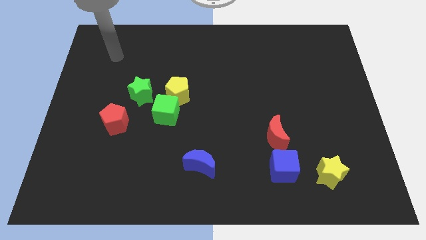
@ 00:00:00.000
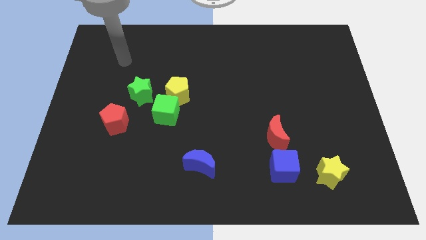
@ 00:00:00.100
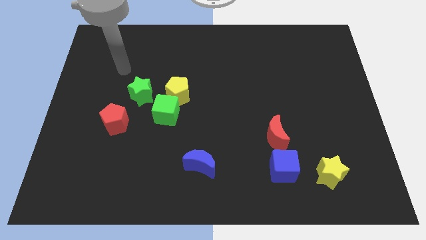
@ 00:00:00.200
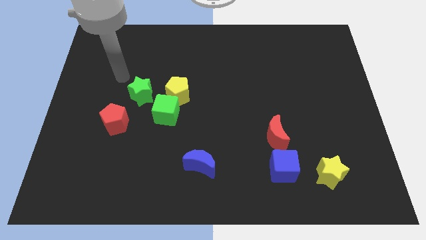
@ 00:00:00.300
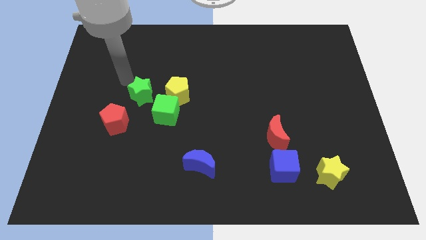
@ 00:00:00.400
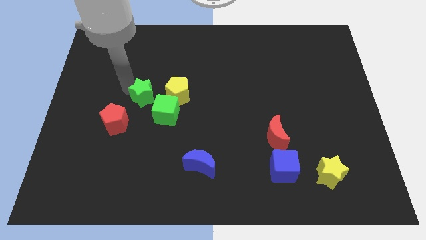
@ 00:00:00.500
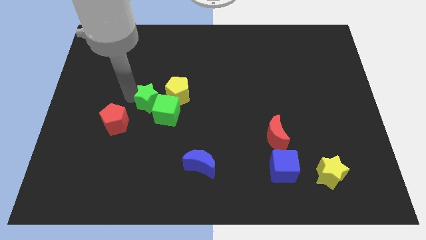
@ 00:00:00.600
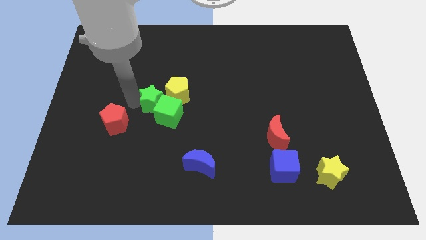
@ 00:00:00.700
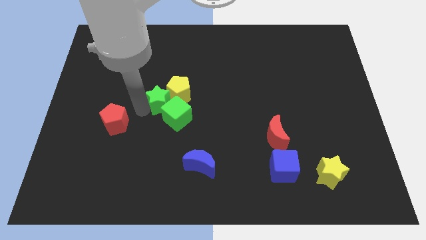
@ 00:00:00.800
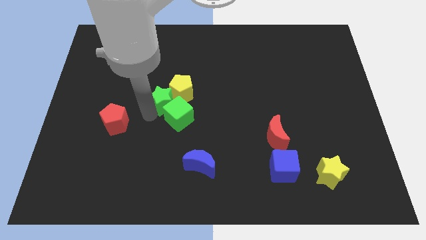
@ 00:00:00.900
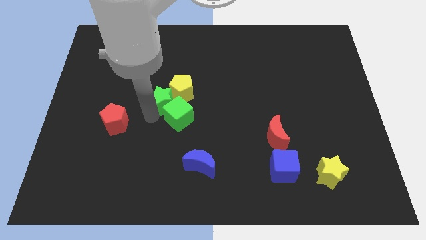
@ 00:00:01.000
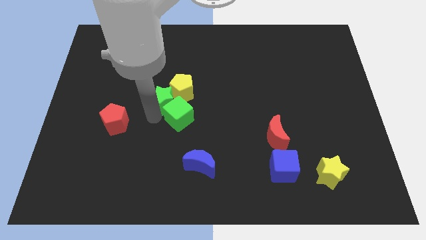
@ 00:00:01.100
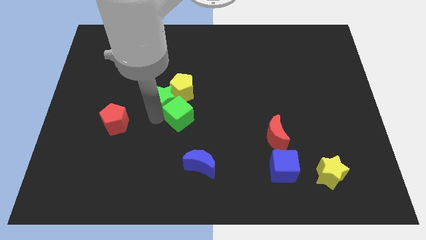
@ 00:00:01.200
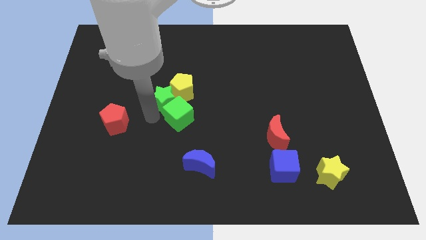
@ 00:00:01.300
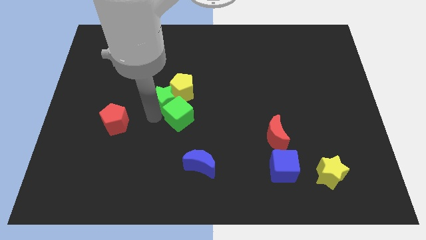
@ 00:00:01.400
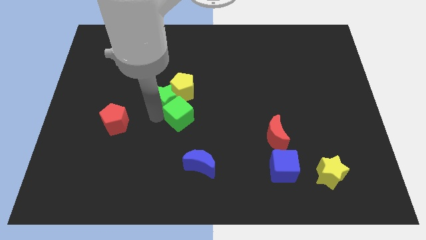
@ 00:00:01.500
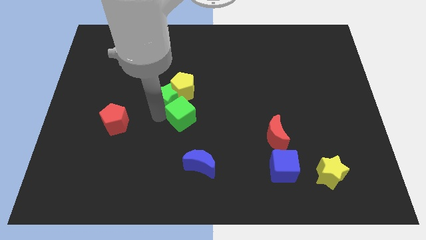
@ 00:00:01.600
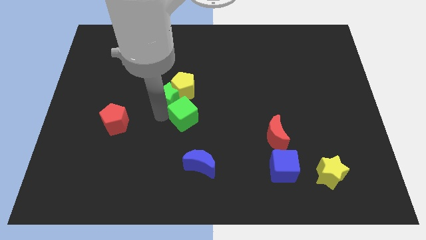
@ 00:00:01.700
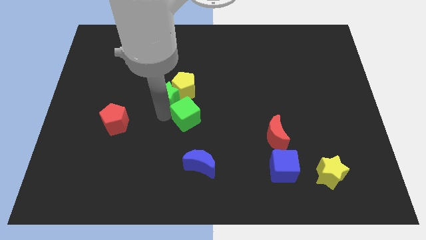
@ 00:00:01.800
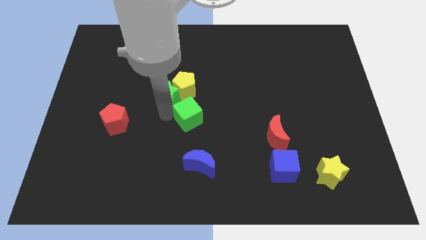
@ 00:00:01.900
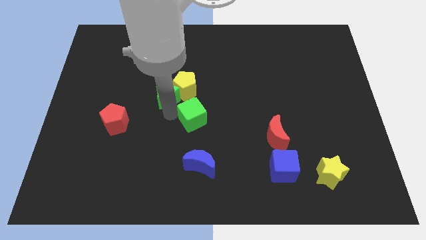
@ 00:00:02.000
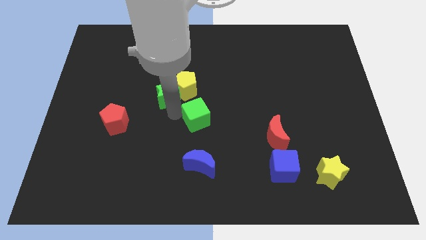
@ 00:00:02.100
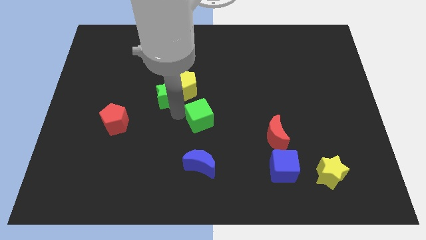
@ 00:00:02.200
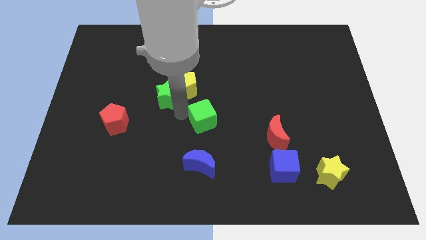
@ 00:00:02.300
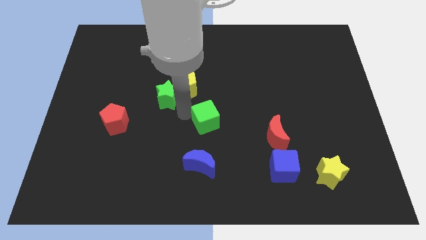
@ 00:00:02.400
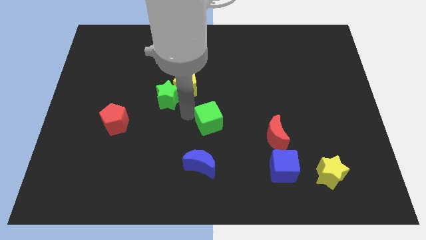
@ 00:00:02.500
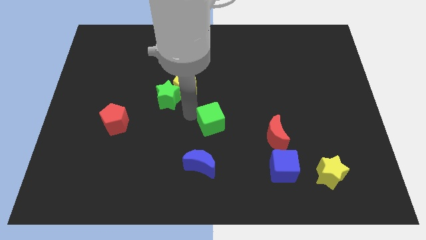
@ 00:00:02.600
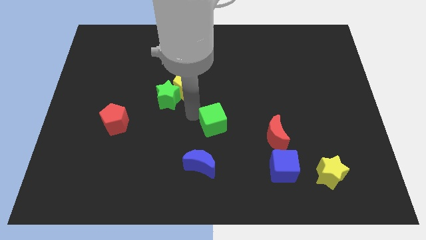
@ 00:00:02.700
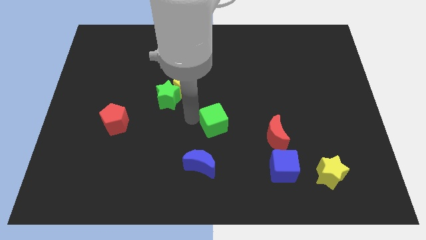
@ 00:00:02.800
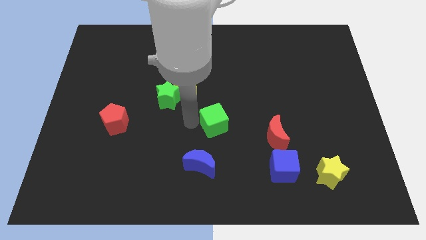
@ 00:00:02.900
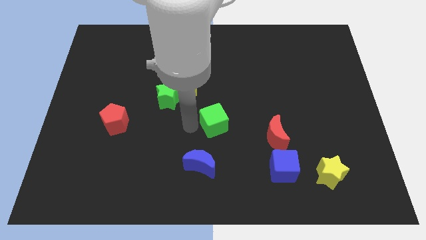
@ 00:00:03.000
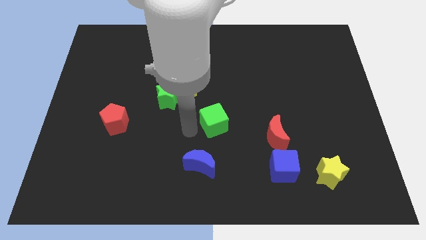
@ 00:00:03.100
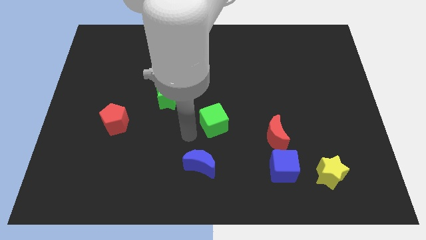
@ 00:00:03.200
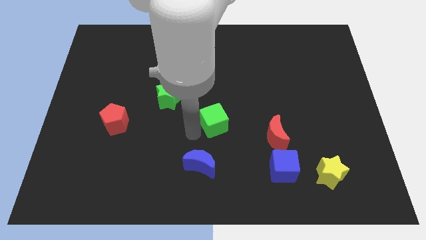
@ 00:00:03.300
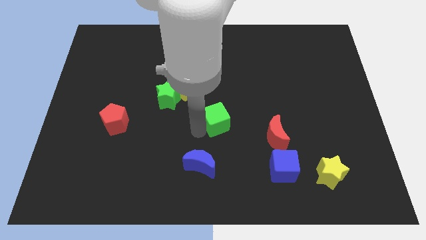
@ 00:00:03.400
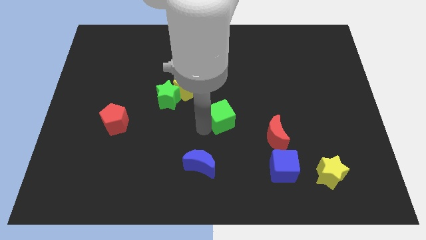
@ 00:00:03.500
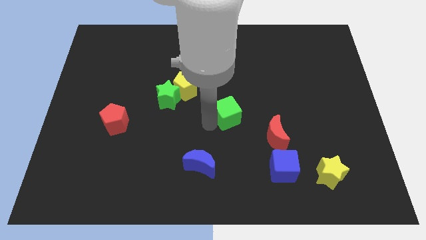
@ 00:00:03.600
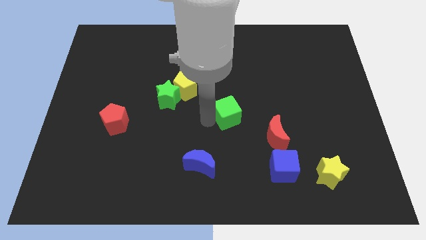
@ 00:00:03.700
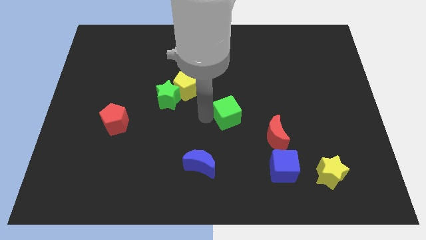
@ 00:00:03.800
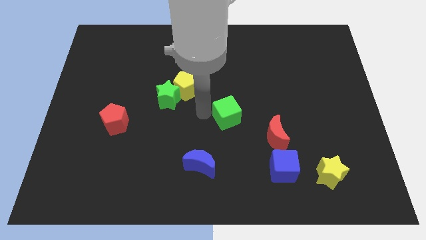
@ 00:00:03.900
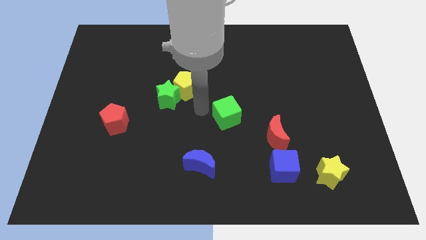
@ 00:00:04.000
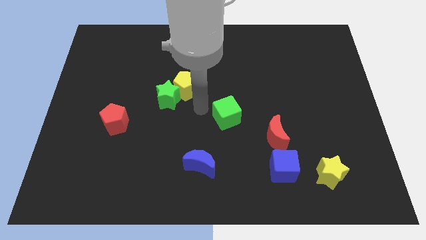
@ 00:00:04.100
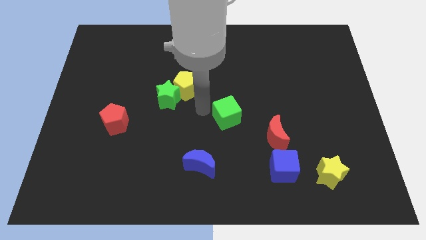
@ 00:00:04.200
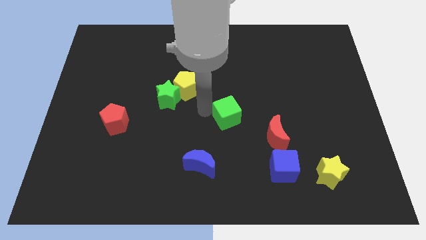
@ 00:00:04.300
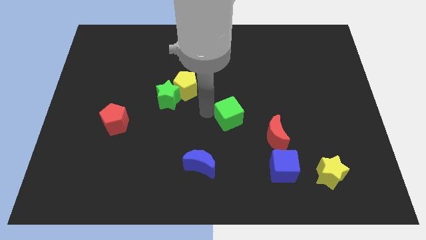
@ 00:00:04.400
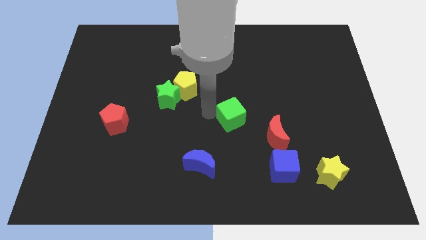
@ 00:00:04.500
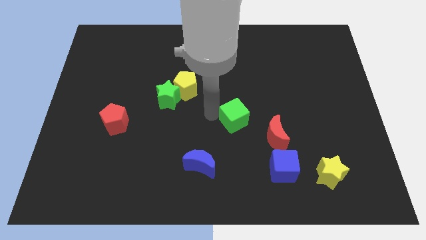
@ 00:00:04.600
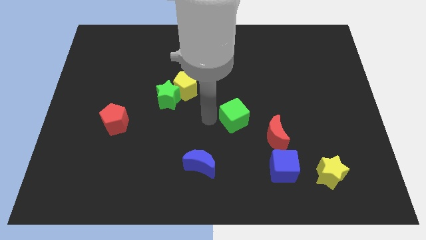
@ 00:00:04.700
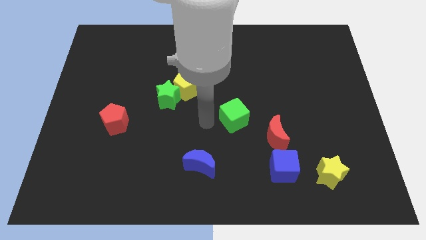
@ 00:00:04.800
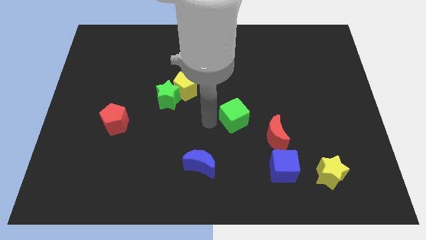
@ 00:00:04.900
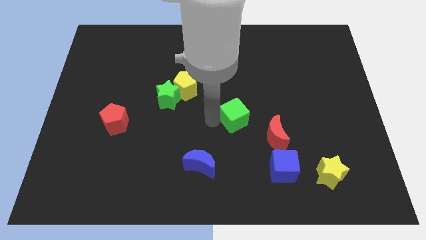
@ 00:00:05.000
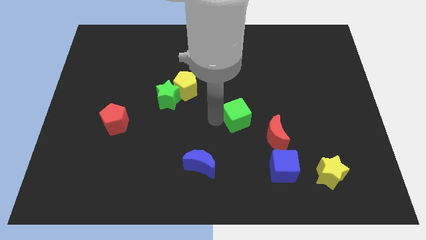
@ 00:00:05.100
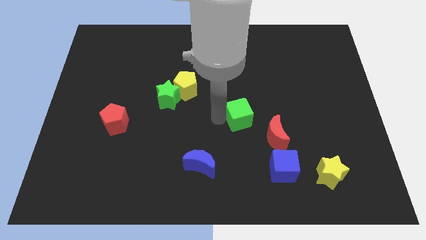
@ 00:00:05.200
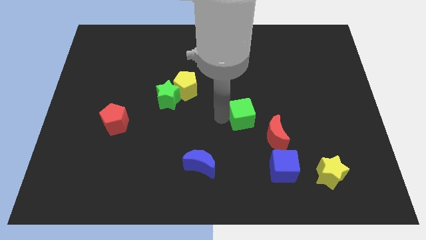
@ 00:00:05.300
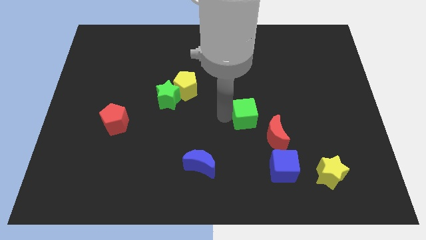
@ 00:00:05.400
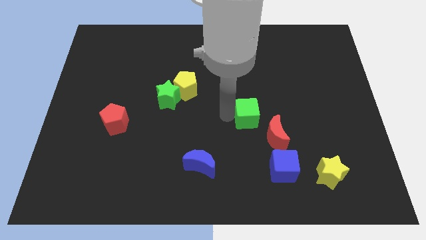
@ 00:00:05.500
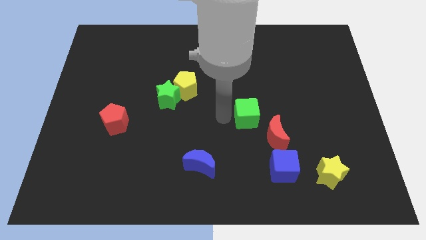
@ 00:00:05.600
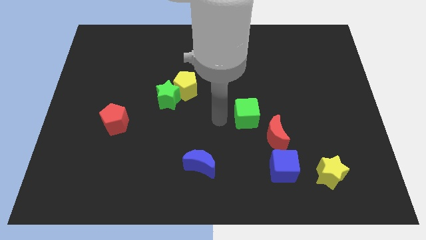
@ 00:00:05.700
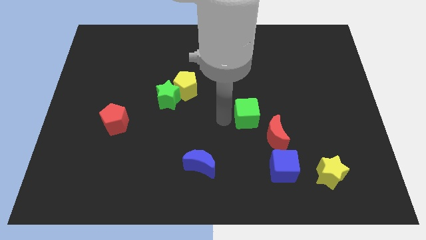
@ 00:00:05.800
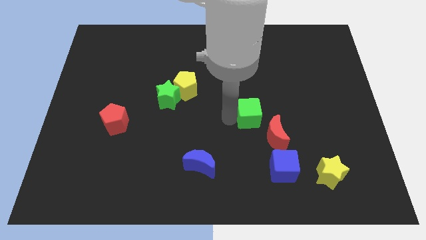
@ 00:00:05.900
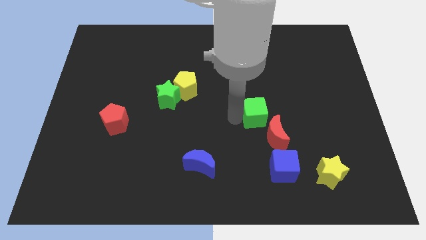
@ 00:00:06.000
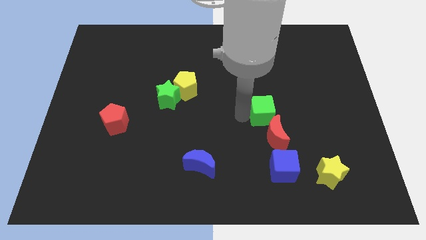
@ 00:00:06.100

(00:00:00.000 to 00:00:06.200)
move the green cube to the top side of the blue cube

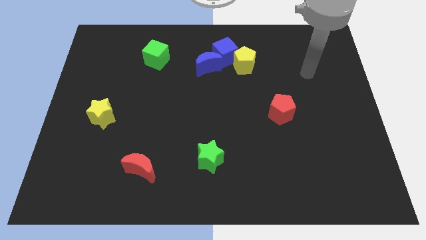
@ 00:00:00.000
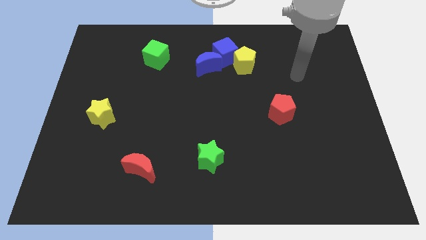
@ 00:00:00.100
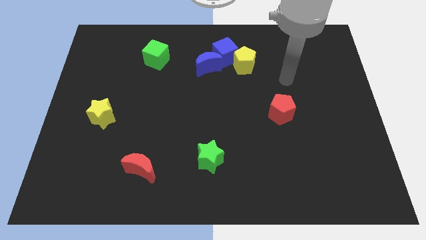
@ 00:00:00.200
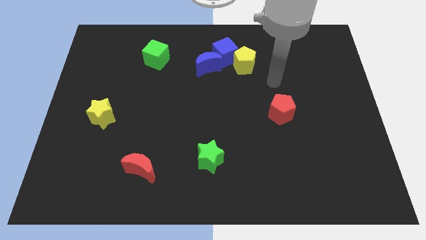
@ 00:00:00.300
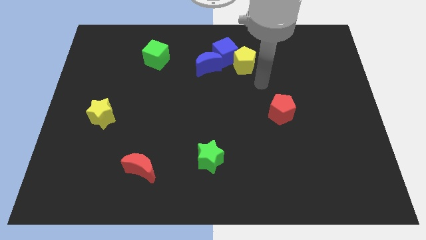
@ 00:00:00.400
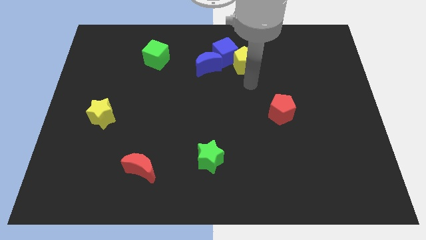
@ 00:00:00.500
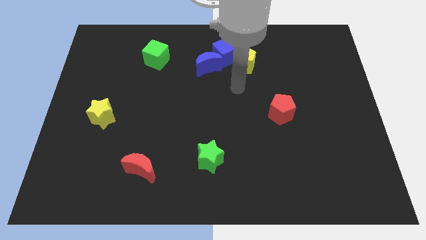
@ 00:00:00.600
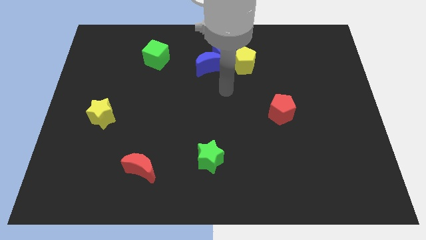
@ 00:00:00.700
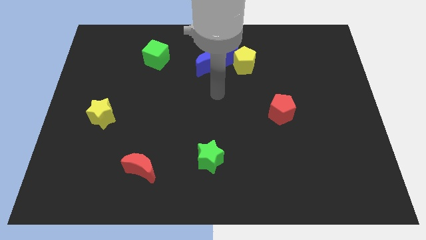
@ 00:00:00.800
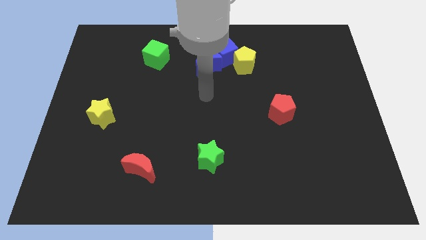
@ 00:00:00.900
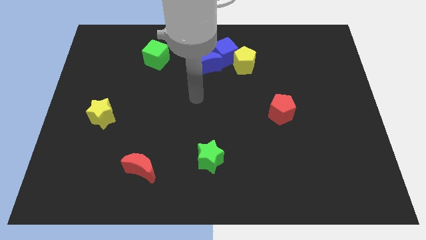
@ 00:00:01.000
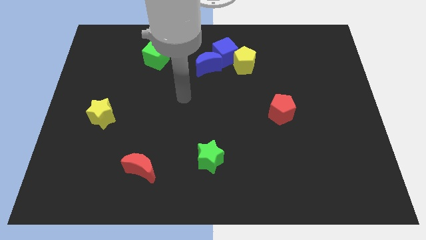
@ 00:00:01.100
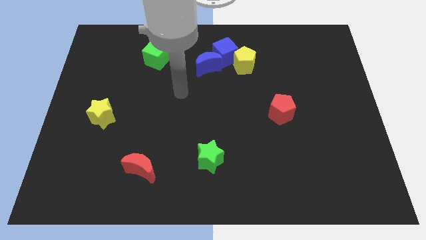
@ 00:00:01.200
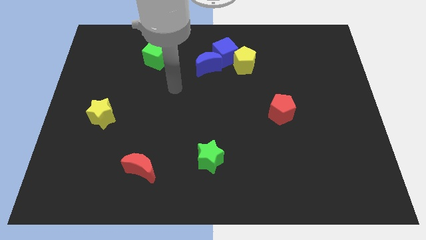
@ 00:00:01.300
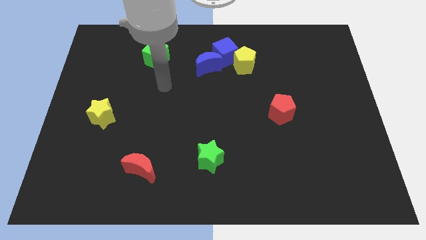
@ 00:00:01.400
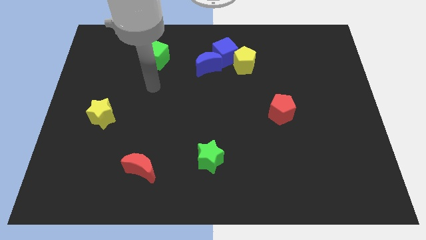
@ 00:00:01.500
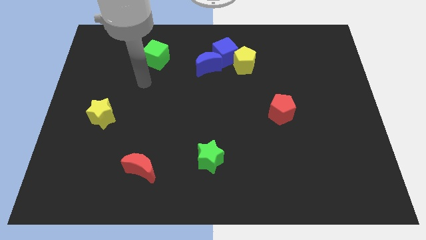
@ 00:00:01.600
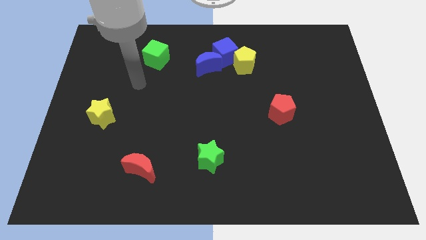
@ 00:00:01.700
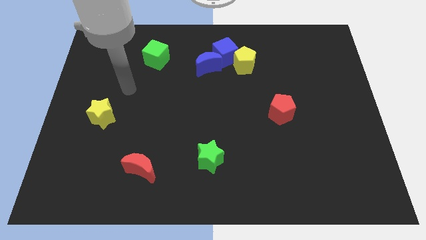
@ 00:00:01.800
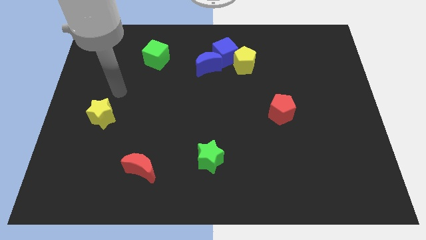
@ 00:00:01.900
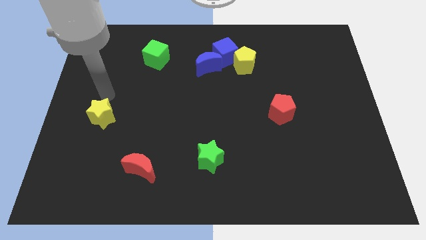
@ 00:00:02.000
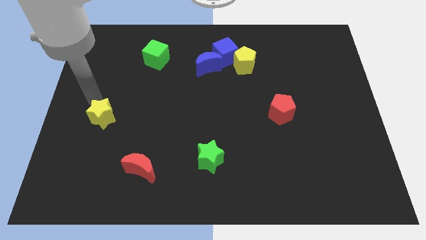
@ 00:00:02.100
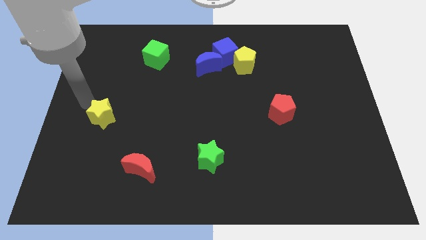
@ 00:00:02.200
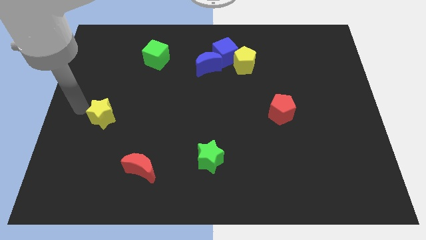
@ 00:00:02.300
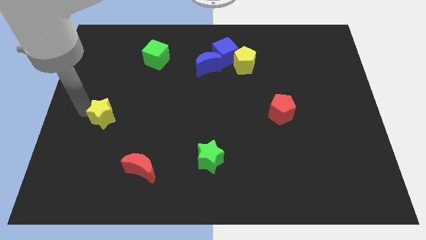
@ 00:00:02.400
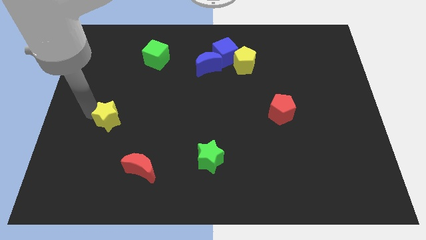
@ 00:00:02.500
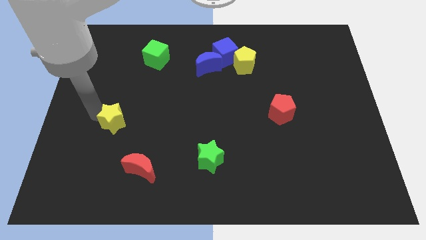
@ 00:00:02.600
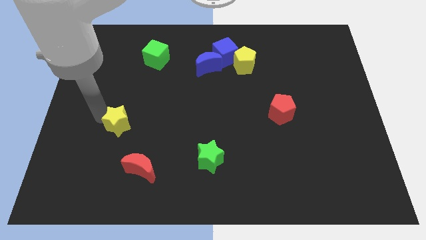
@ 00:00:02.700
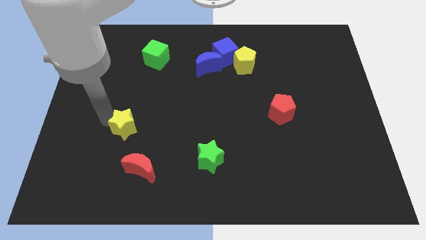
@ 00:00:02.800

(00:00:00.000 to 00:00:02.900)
put the yellow star to the top side of the red moon
